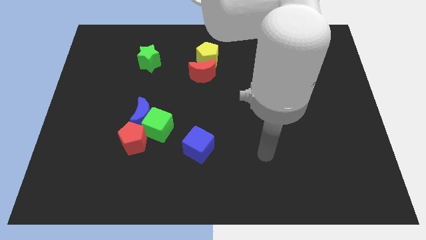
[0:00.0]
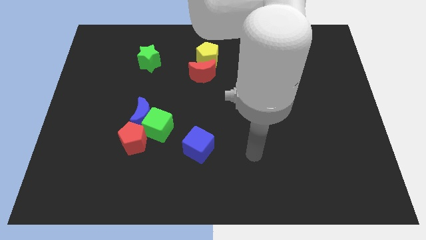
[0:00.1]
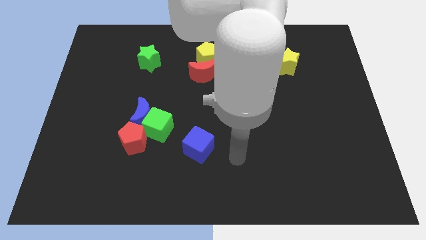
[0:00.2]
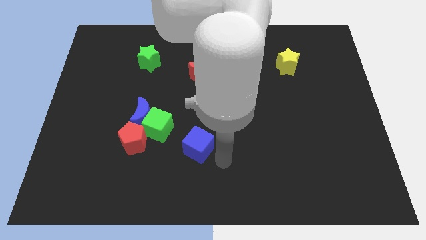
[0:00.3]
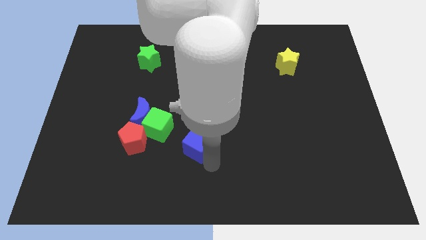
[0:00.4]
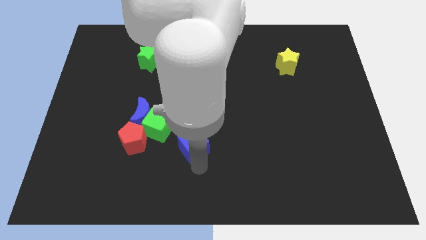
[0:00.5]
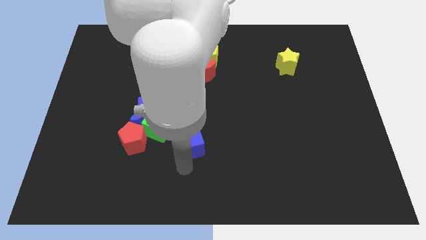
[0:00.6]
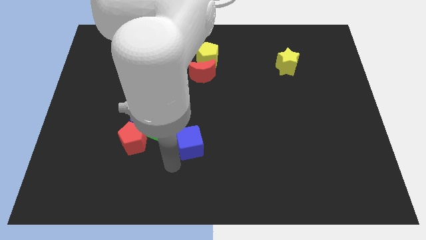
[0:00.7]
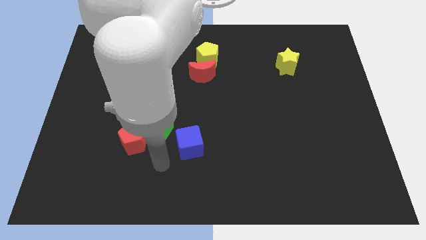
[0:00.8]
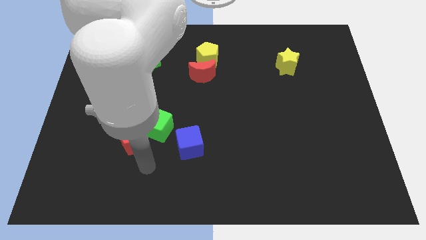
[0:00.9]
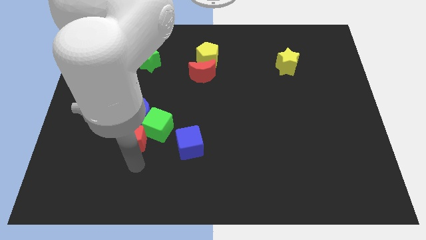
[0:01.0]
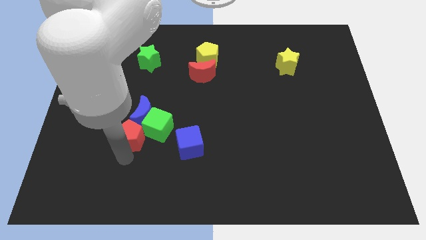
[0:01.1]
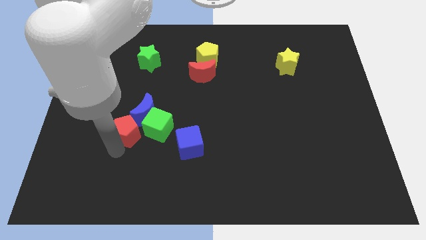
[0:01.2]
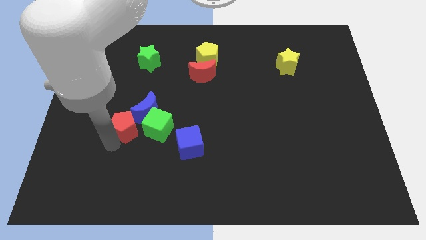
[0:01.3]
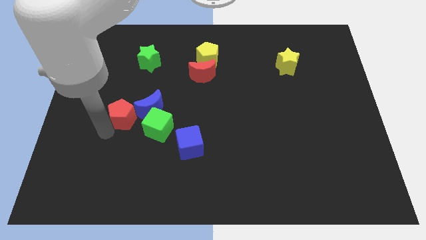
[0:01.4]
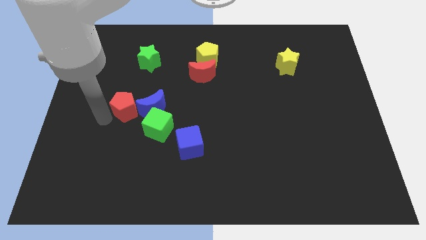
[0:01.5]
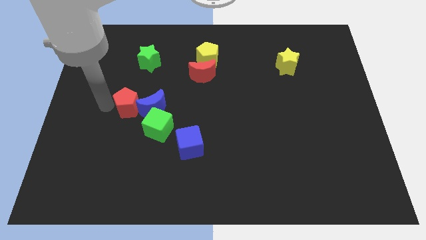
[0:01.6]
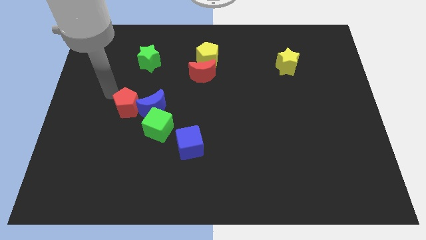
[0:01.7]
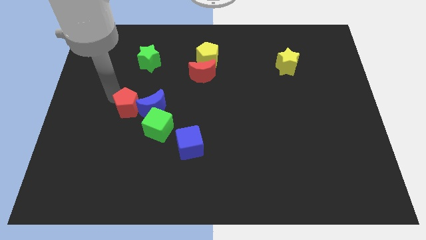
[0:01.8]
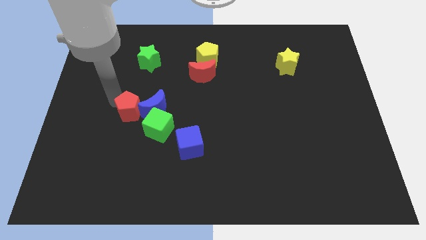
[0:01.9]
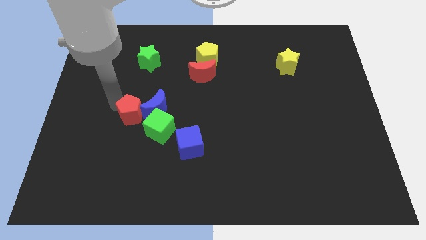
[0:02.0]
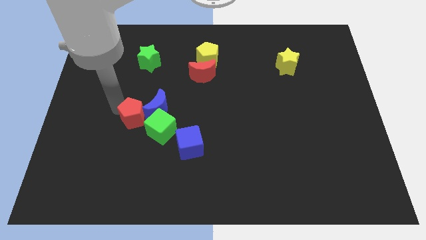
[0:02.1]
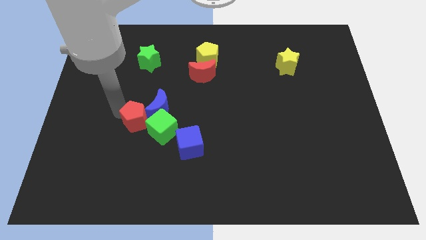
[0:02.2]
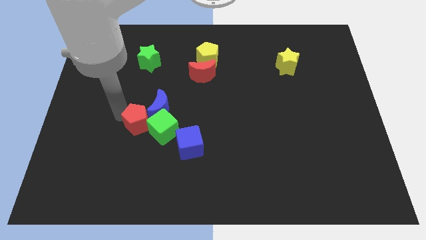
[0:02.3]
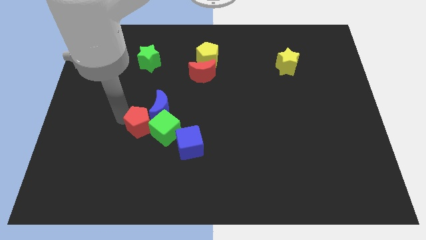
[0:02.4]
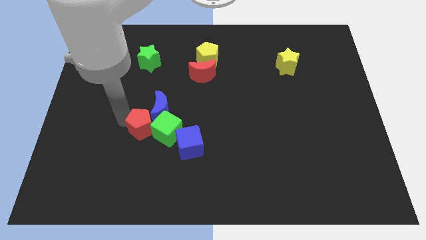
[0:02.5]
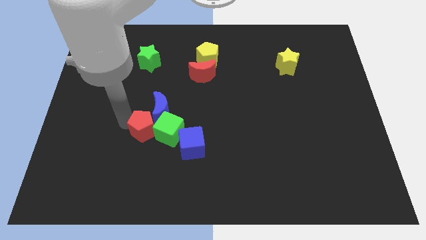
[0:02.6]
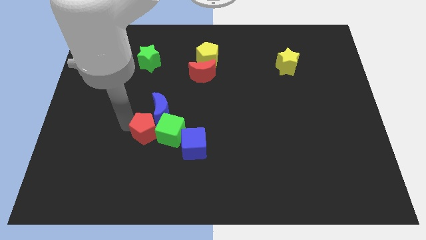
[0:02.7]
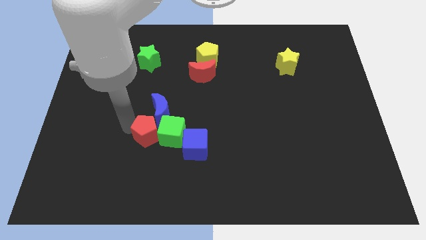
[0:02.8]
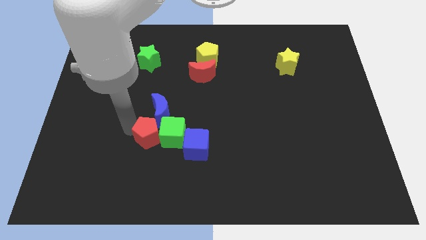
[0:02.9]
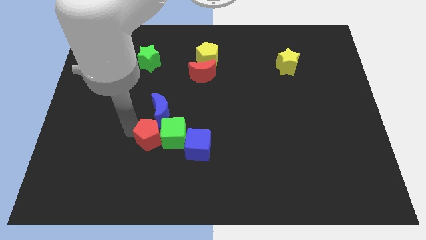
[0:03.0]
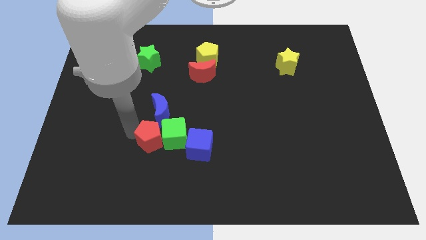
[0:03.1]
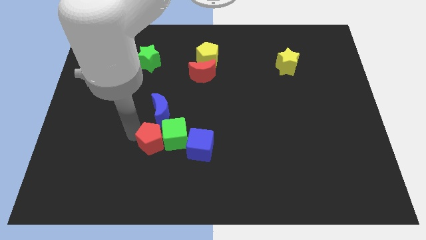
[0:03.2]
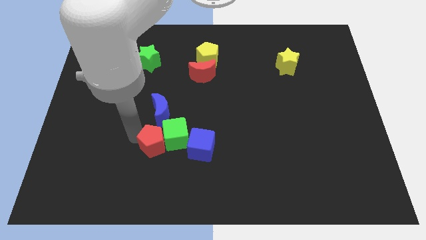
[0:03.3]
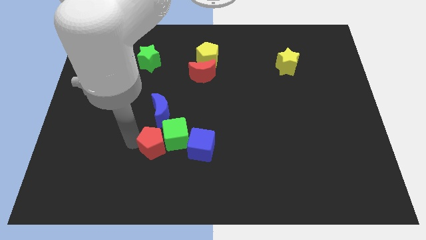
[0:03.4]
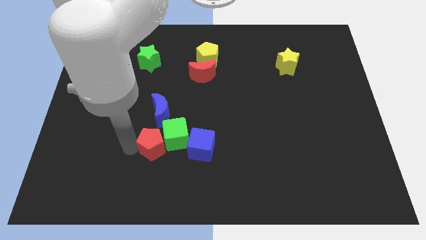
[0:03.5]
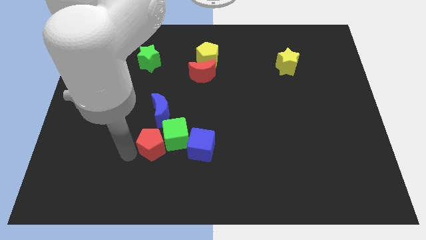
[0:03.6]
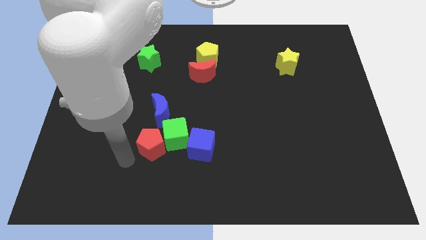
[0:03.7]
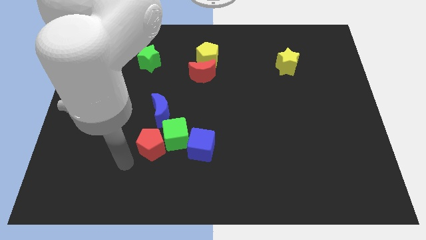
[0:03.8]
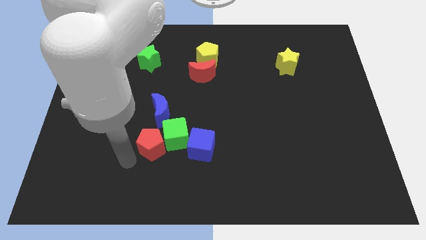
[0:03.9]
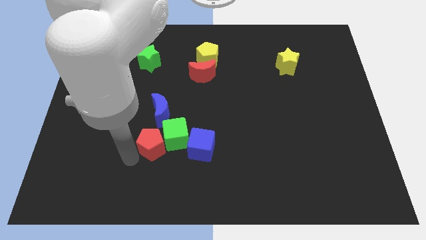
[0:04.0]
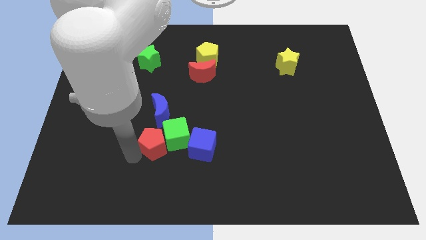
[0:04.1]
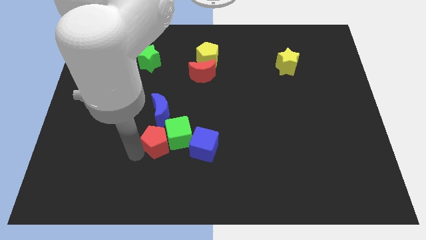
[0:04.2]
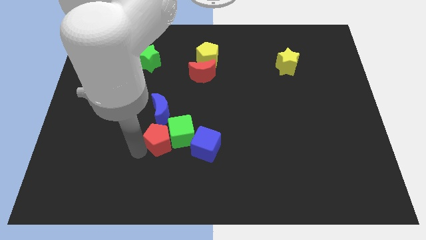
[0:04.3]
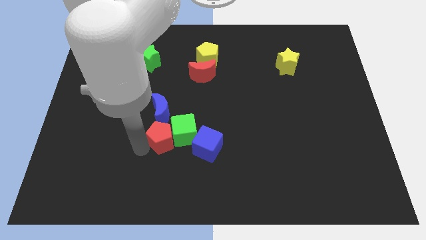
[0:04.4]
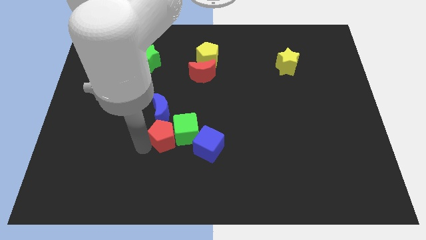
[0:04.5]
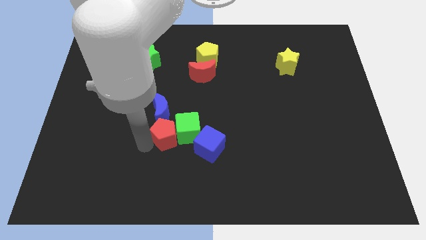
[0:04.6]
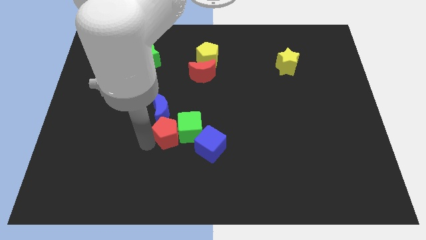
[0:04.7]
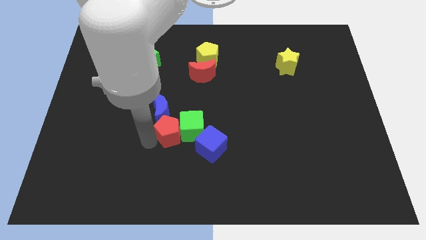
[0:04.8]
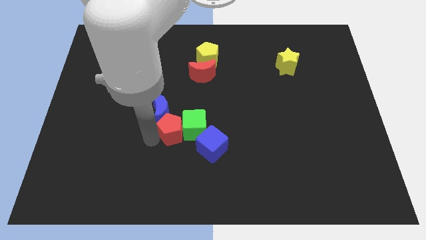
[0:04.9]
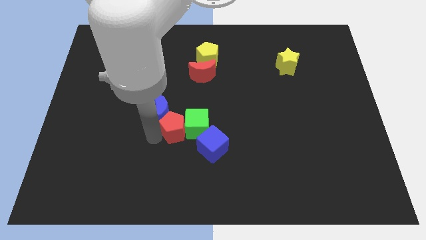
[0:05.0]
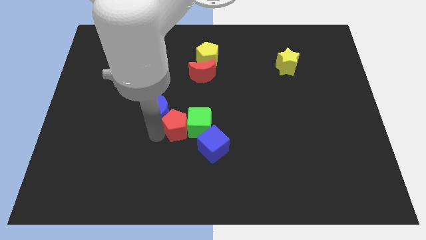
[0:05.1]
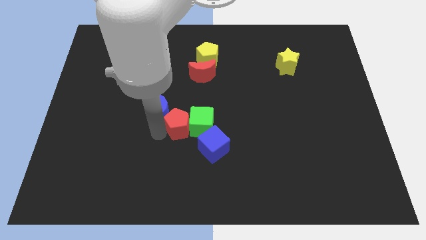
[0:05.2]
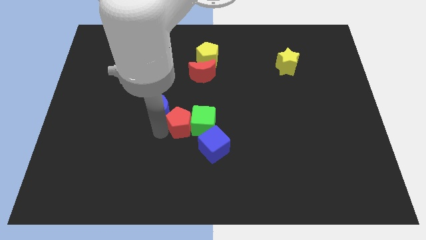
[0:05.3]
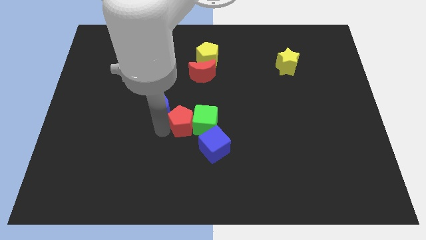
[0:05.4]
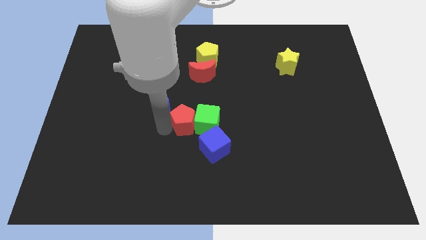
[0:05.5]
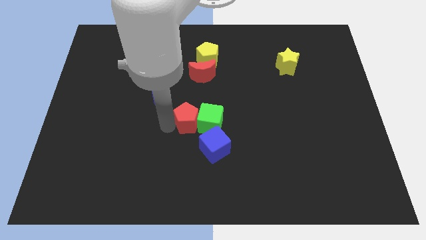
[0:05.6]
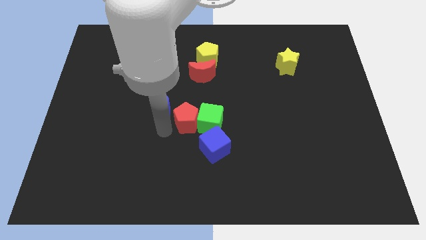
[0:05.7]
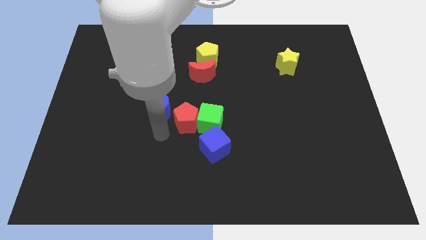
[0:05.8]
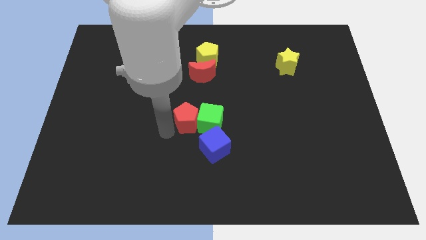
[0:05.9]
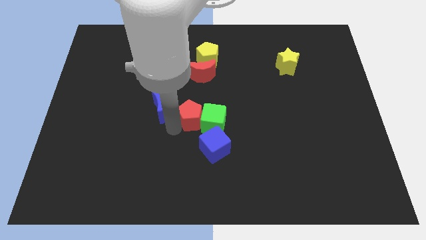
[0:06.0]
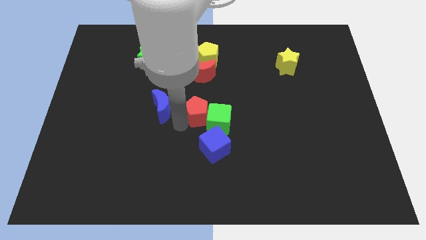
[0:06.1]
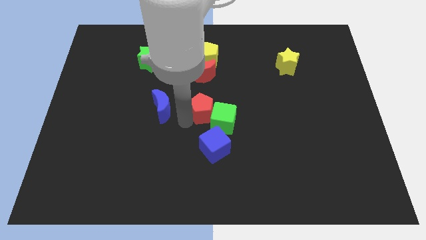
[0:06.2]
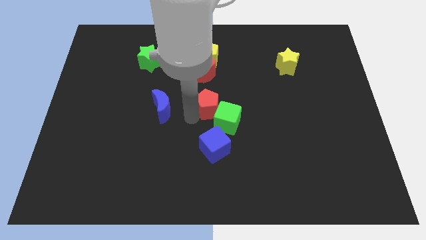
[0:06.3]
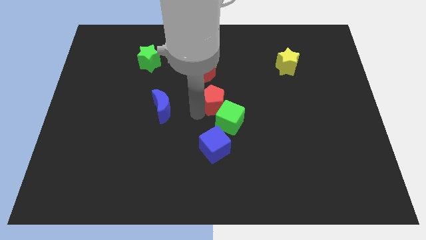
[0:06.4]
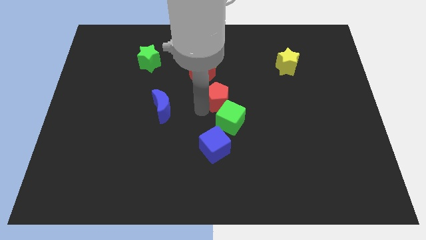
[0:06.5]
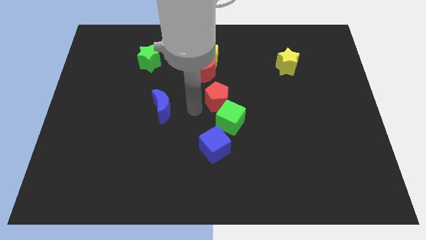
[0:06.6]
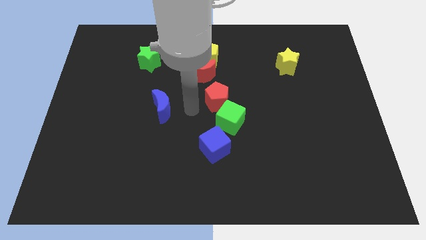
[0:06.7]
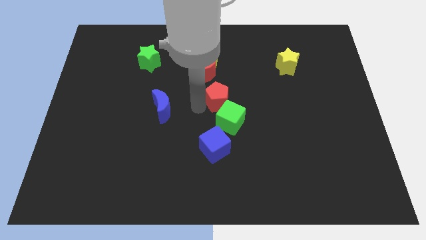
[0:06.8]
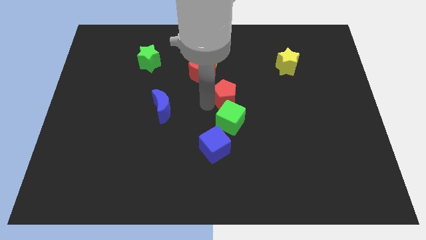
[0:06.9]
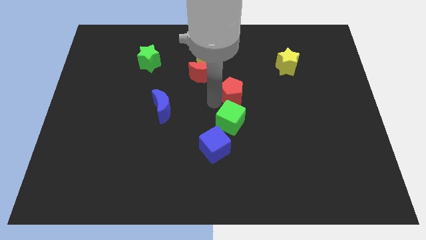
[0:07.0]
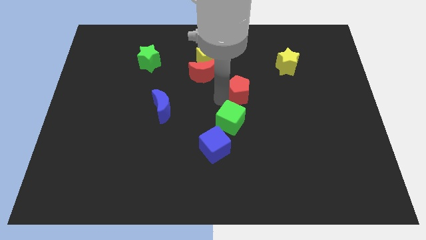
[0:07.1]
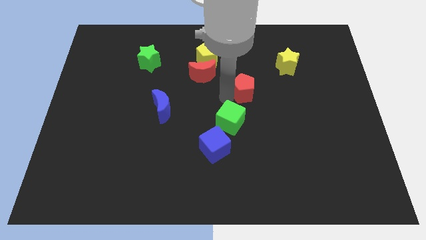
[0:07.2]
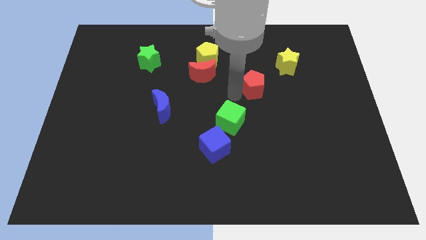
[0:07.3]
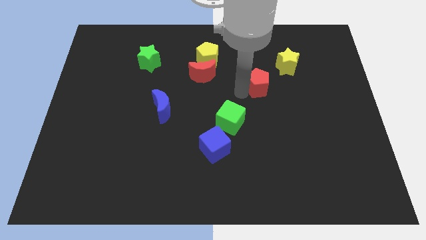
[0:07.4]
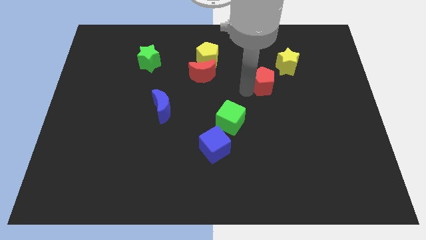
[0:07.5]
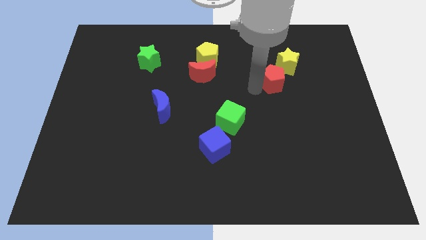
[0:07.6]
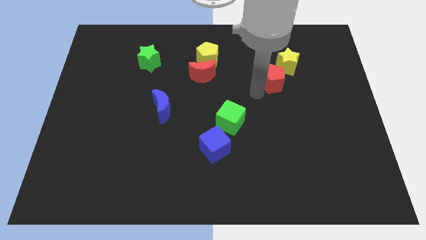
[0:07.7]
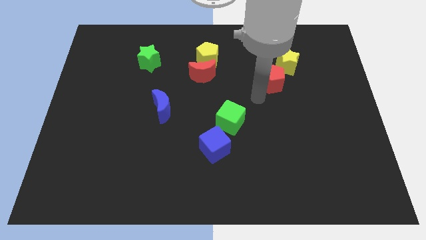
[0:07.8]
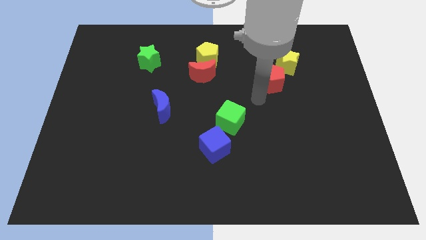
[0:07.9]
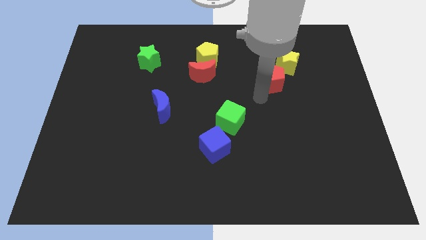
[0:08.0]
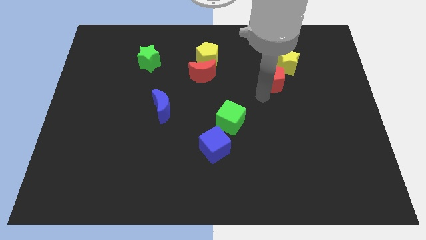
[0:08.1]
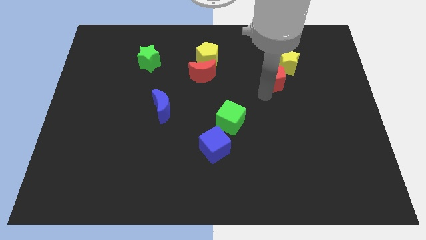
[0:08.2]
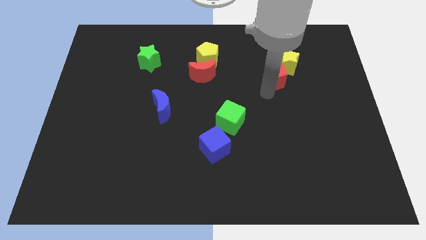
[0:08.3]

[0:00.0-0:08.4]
put the red pentagon towards the yellow star
